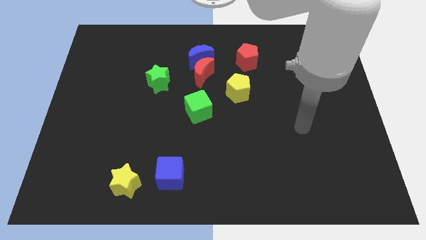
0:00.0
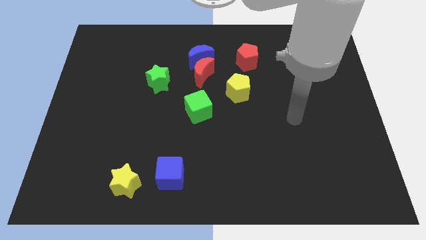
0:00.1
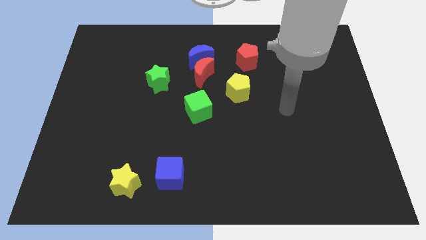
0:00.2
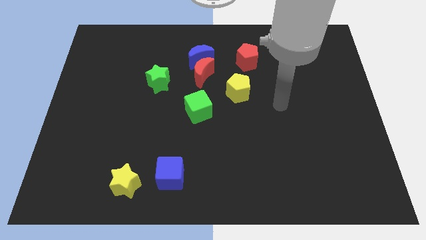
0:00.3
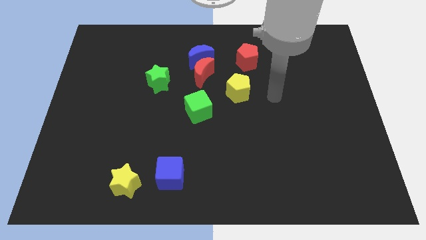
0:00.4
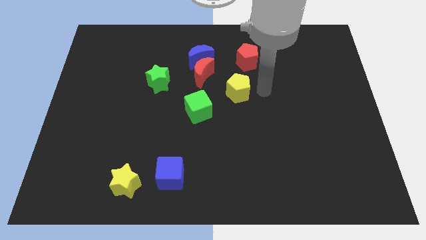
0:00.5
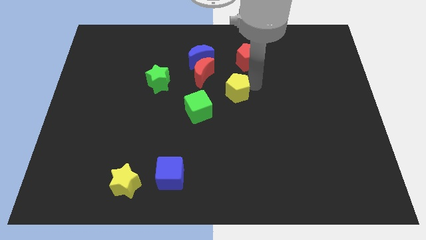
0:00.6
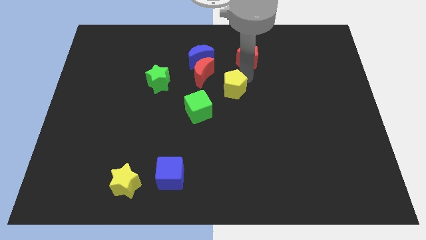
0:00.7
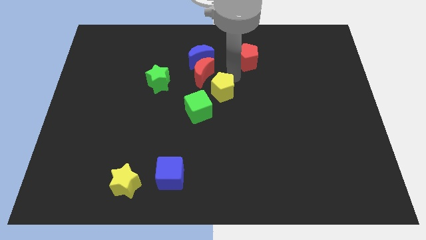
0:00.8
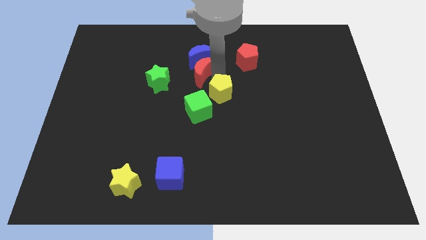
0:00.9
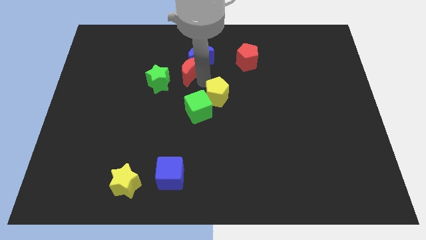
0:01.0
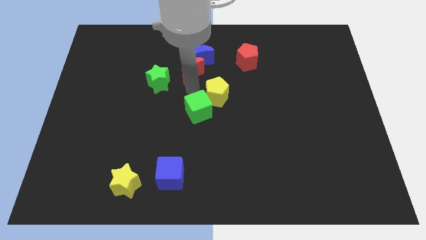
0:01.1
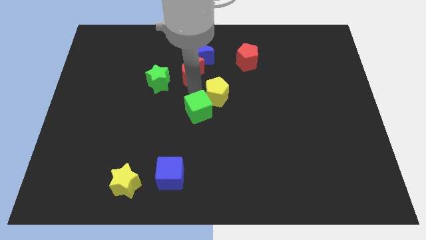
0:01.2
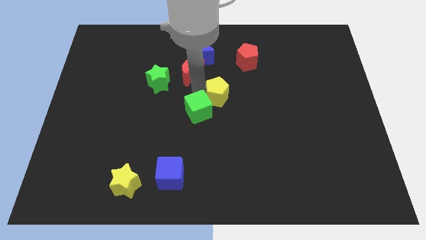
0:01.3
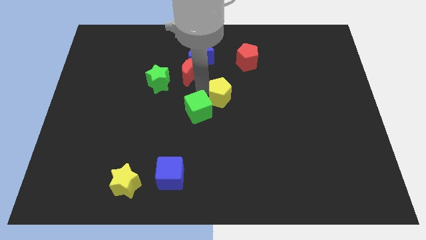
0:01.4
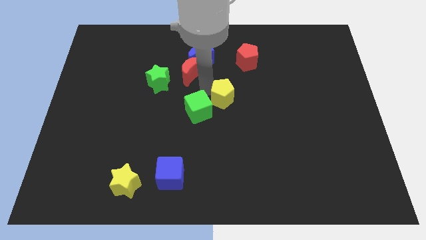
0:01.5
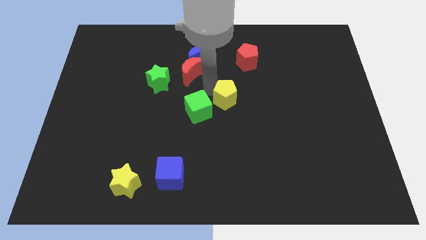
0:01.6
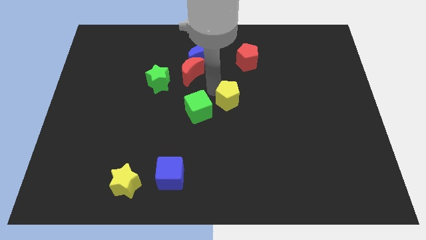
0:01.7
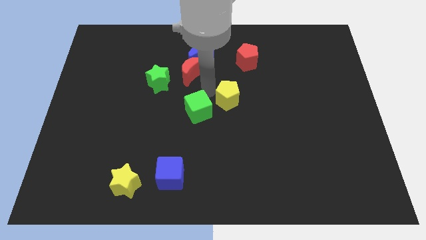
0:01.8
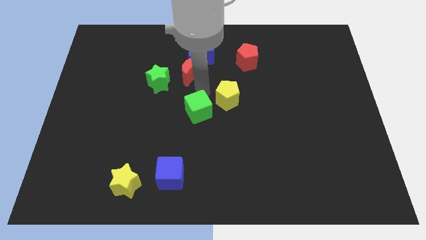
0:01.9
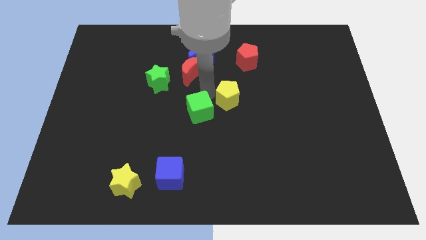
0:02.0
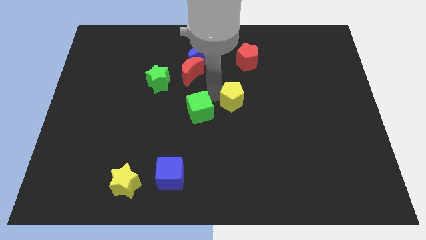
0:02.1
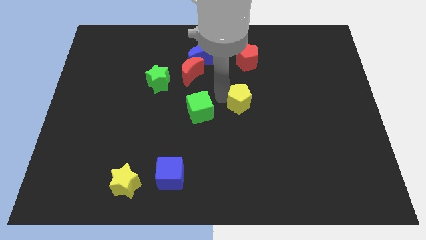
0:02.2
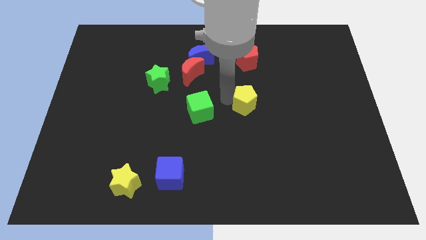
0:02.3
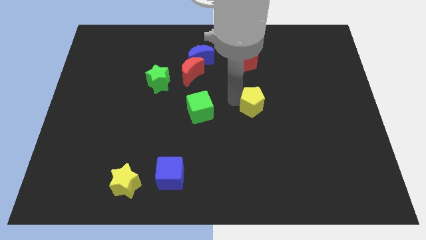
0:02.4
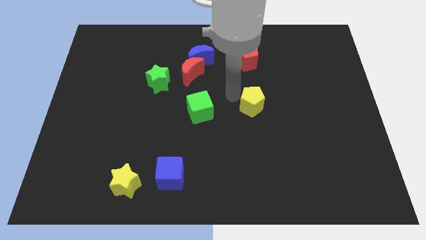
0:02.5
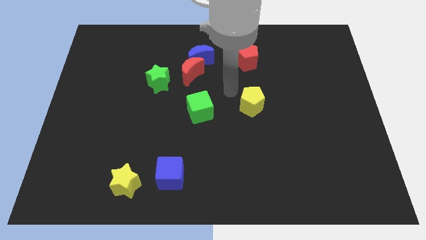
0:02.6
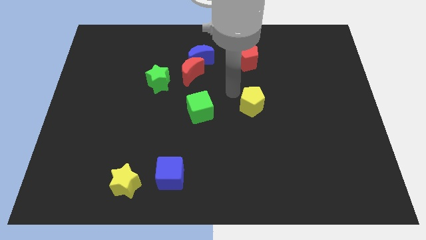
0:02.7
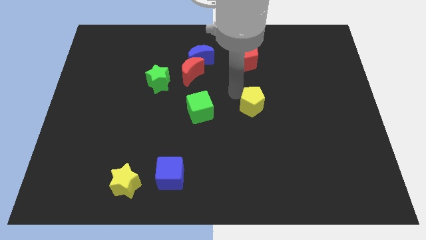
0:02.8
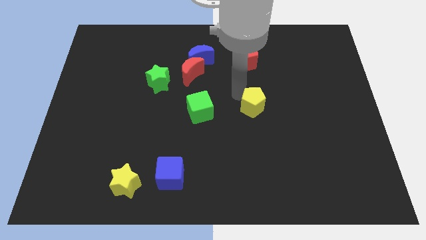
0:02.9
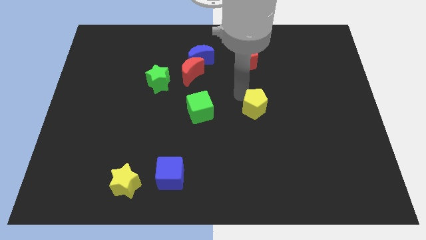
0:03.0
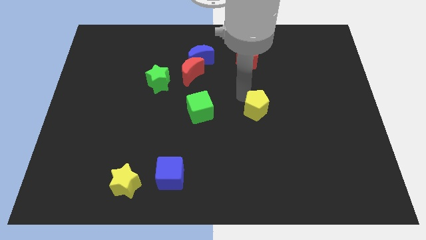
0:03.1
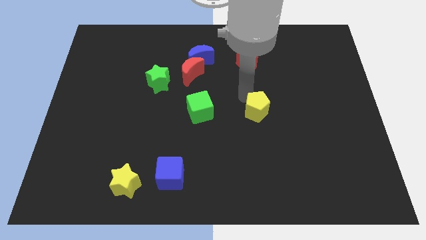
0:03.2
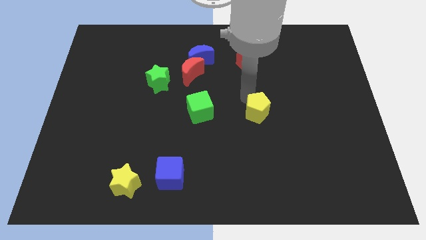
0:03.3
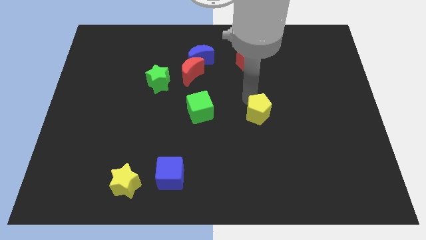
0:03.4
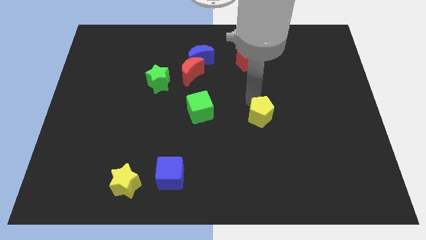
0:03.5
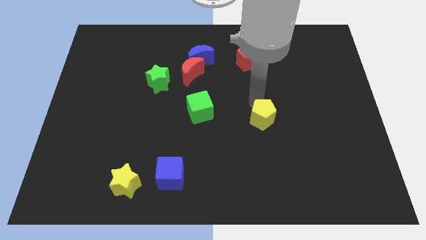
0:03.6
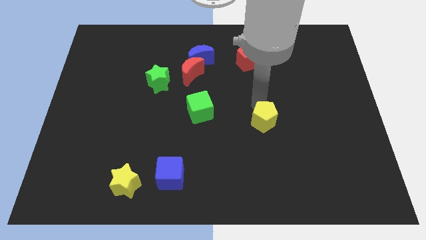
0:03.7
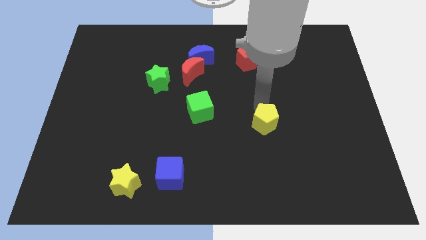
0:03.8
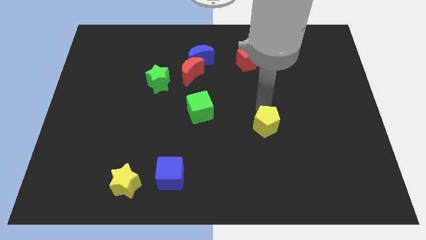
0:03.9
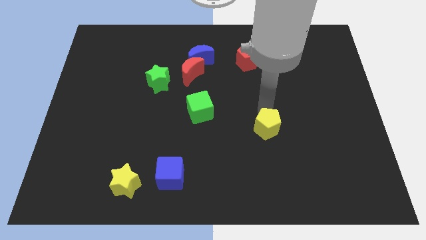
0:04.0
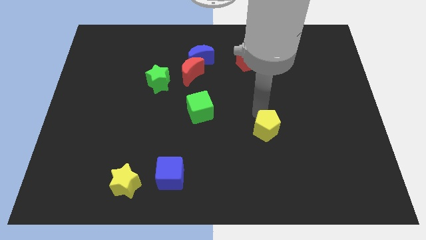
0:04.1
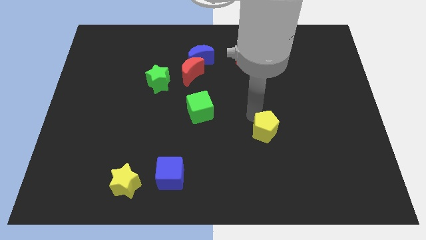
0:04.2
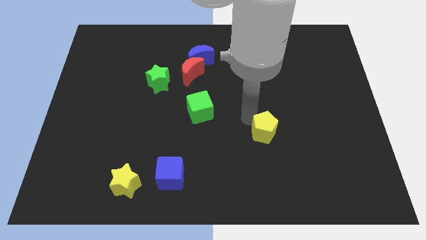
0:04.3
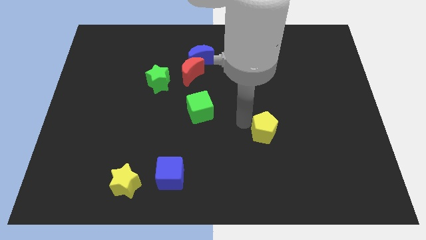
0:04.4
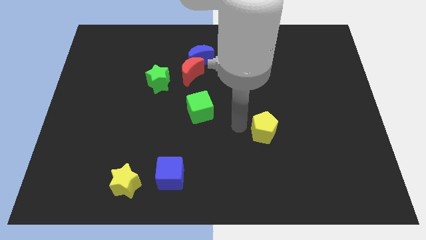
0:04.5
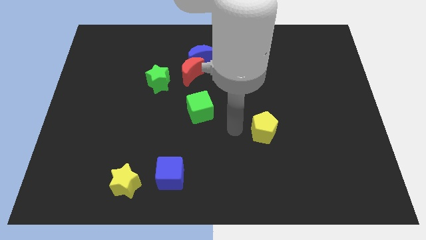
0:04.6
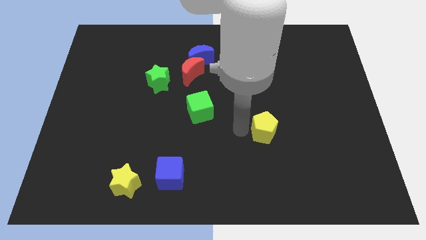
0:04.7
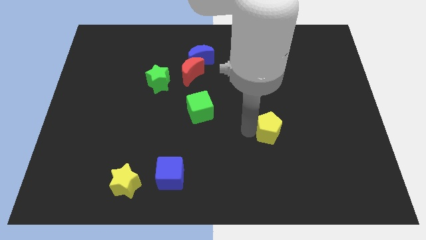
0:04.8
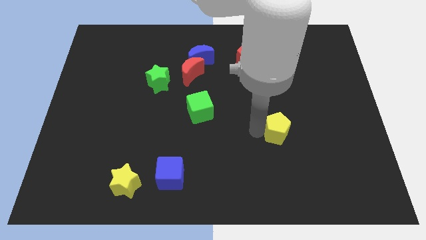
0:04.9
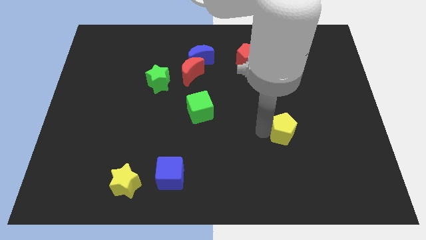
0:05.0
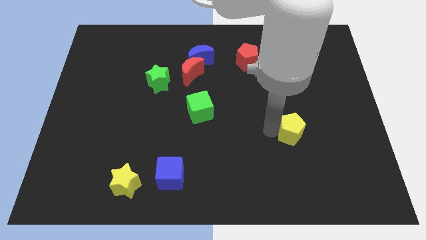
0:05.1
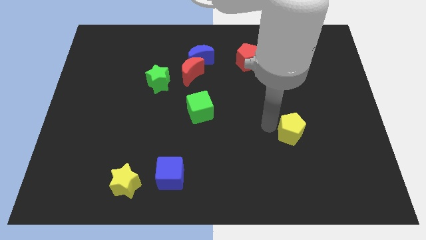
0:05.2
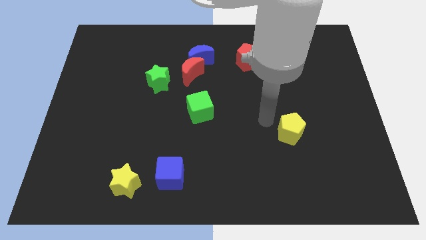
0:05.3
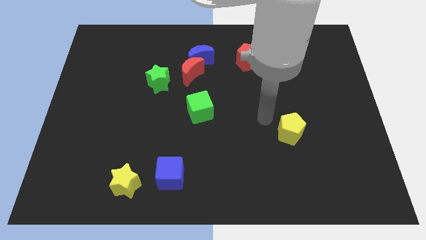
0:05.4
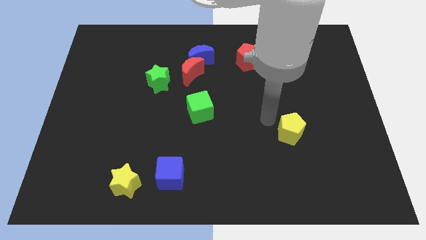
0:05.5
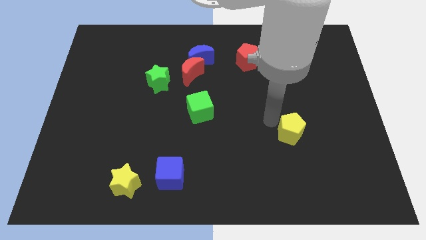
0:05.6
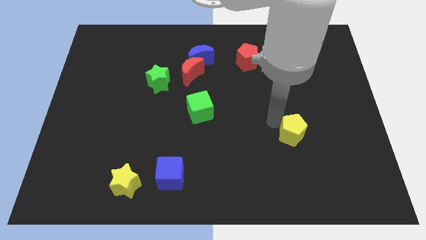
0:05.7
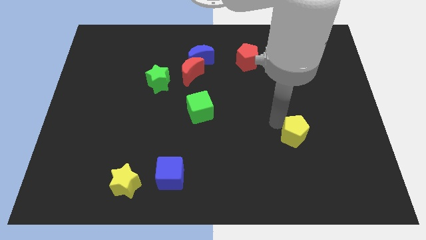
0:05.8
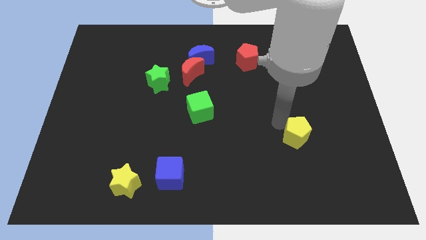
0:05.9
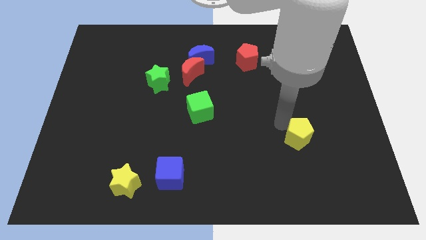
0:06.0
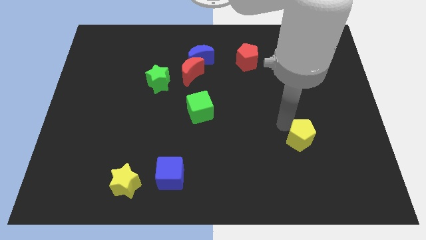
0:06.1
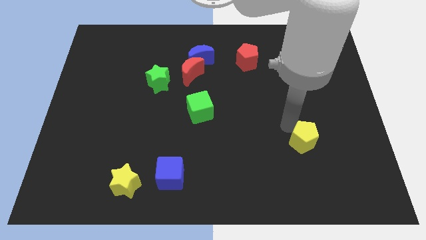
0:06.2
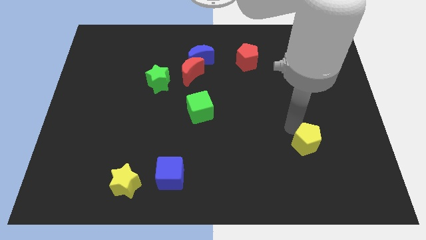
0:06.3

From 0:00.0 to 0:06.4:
push the yellow pentagon down and right diagonally

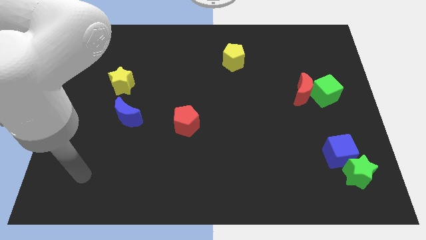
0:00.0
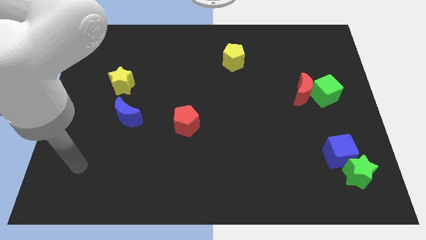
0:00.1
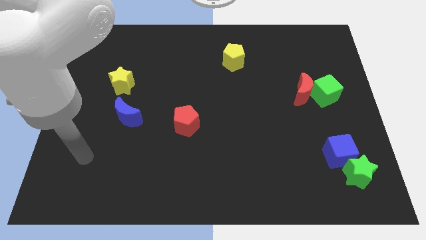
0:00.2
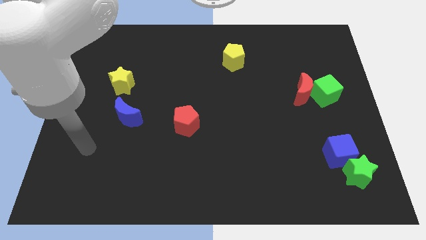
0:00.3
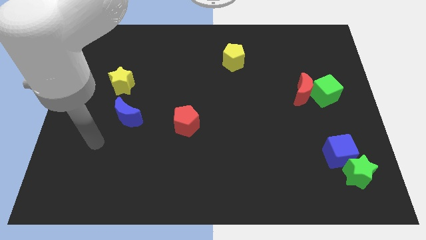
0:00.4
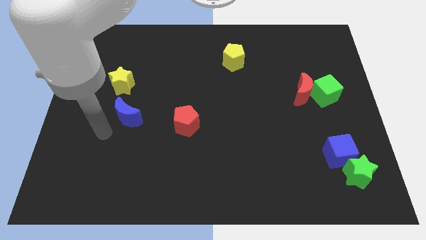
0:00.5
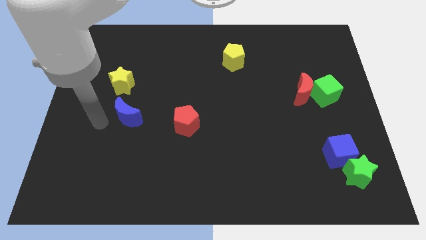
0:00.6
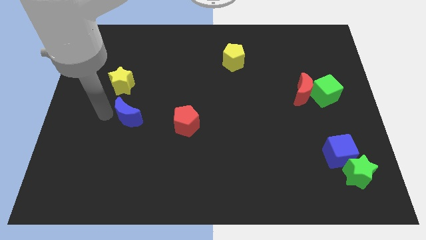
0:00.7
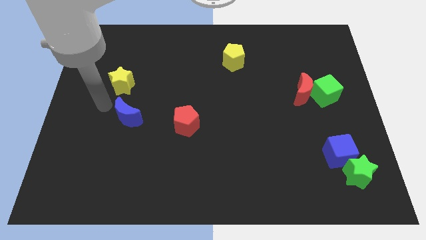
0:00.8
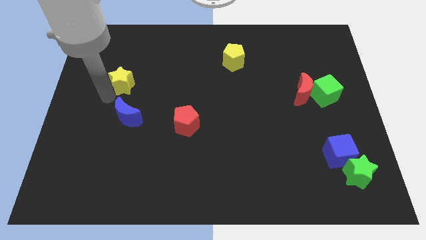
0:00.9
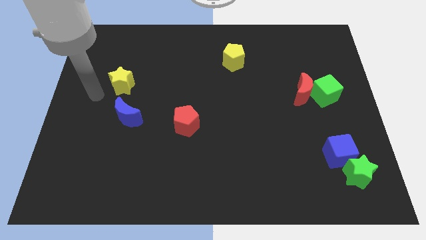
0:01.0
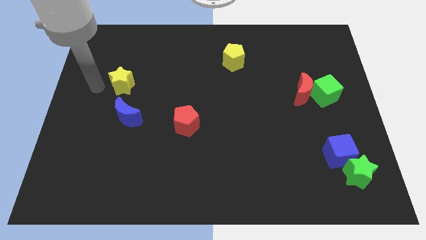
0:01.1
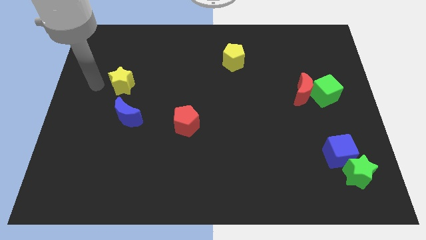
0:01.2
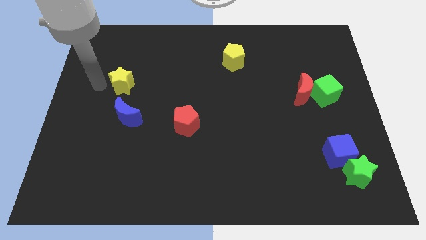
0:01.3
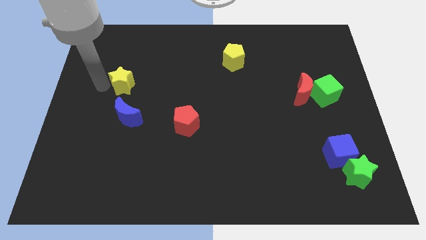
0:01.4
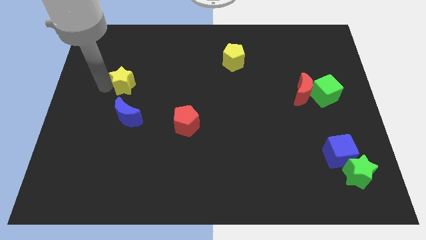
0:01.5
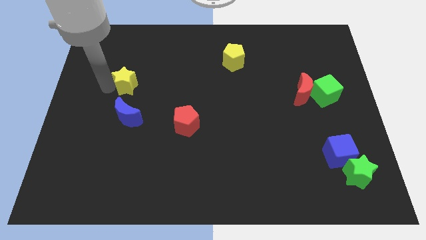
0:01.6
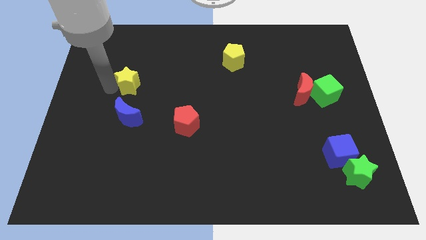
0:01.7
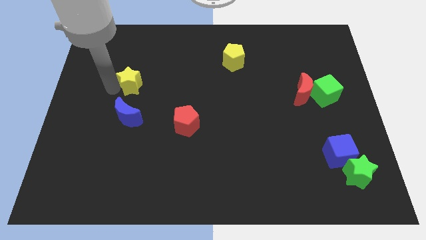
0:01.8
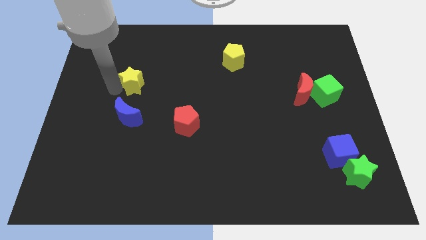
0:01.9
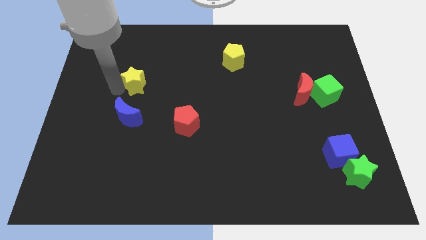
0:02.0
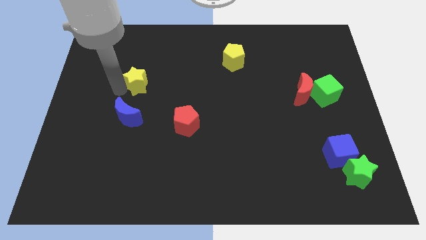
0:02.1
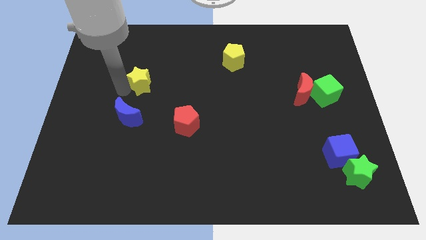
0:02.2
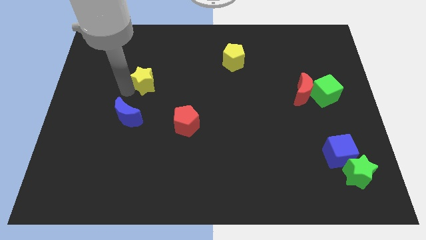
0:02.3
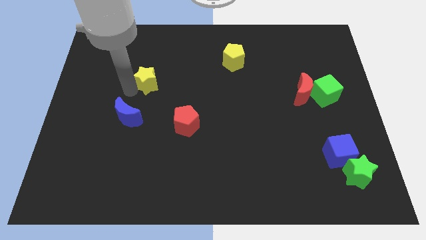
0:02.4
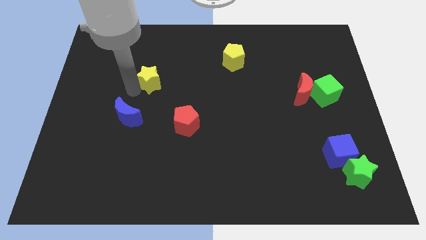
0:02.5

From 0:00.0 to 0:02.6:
move the yellow star to the right somewhat
